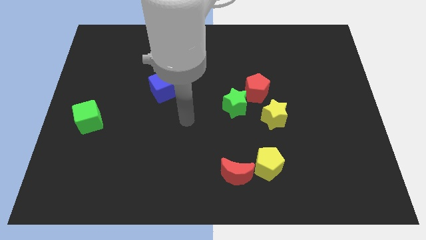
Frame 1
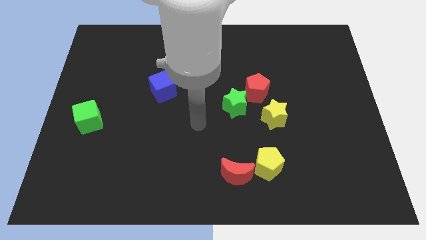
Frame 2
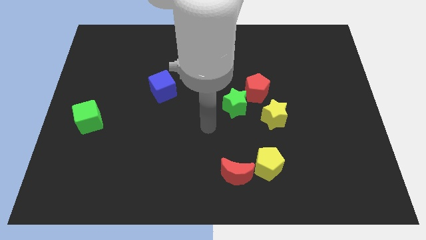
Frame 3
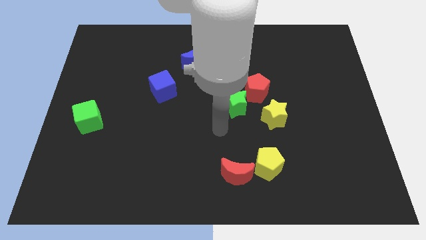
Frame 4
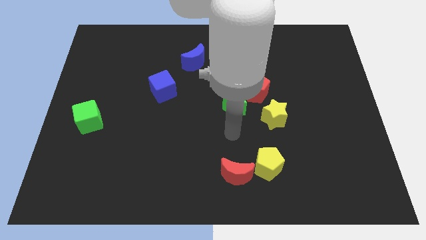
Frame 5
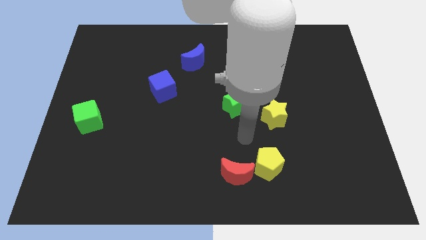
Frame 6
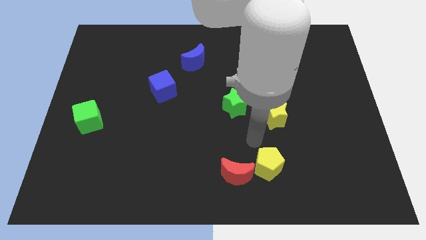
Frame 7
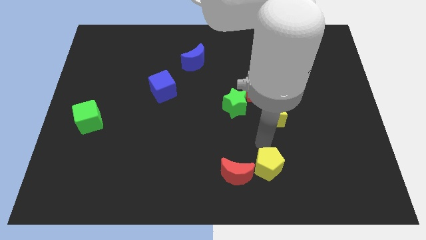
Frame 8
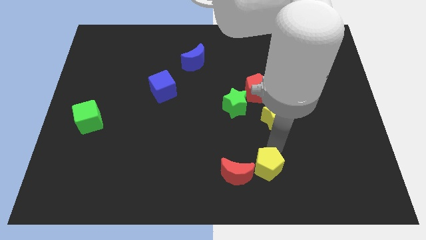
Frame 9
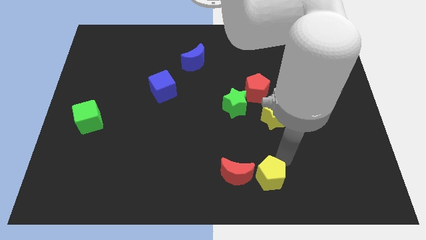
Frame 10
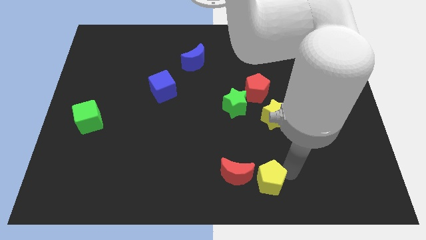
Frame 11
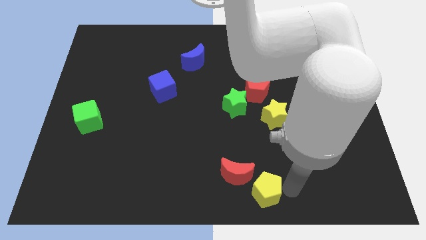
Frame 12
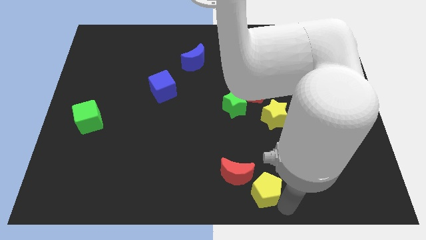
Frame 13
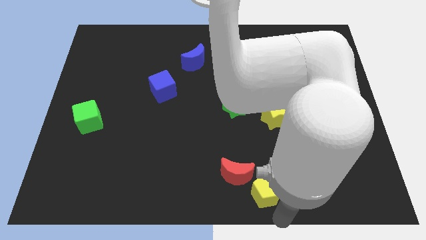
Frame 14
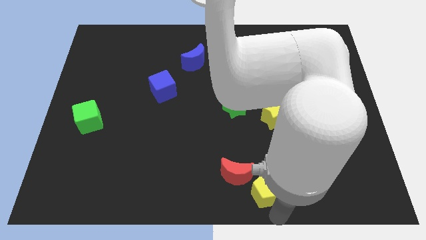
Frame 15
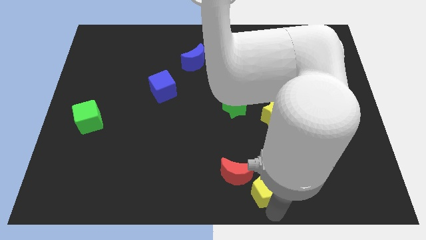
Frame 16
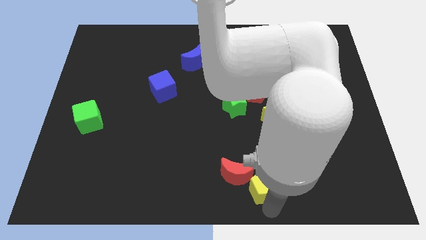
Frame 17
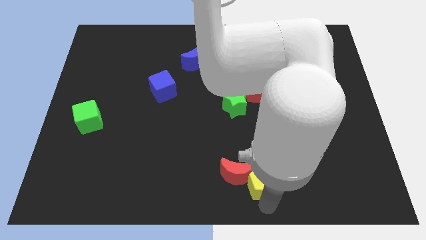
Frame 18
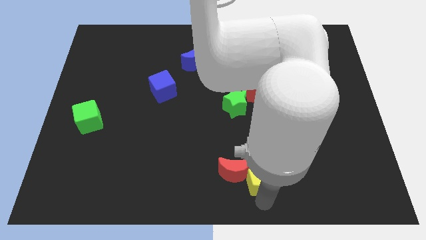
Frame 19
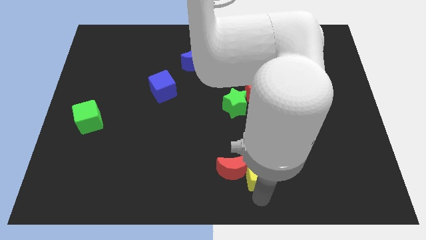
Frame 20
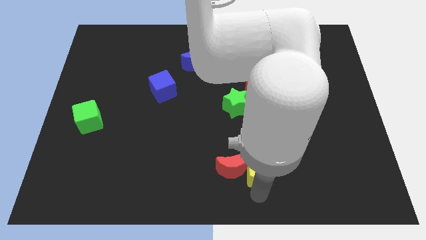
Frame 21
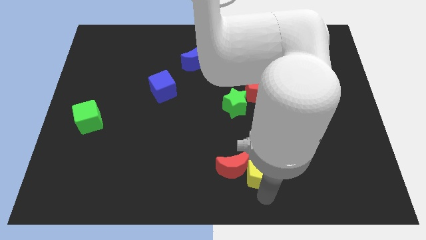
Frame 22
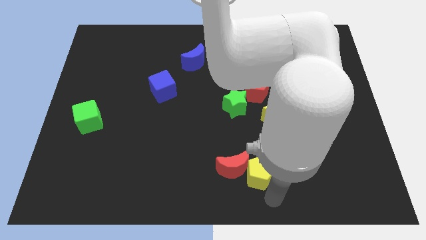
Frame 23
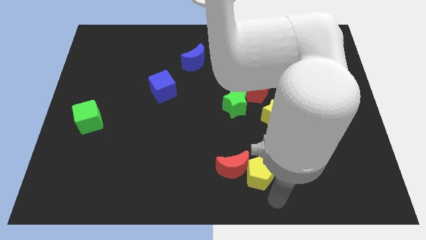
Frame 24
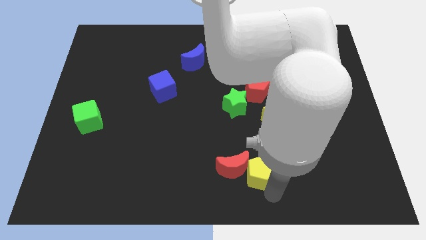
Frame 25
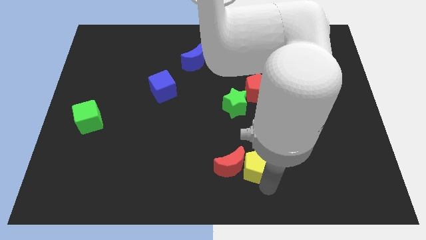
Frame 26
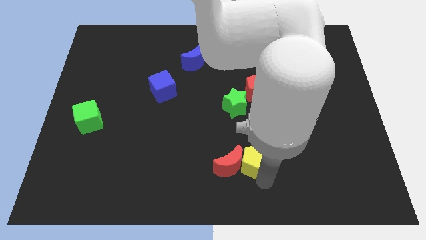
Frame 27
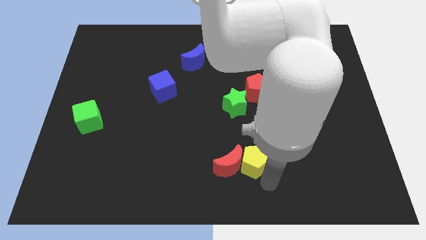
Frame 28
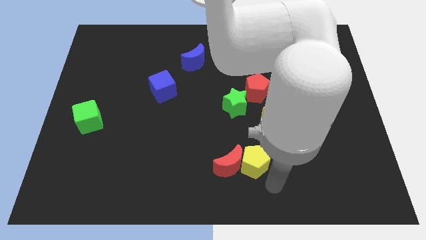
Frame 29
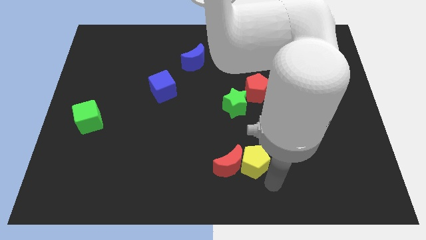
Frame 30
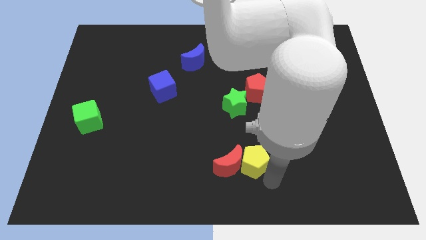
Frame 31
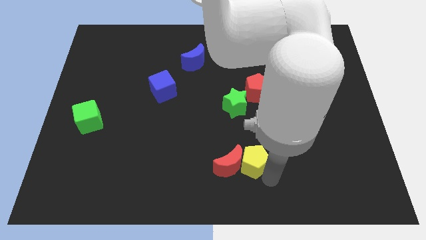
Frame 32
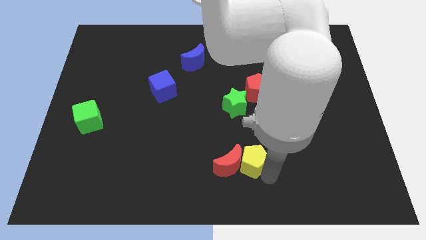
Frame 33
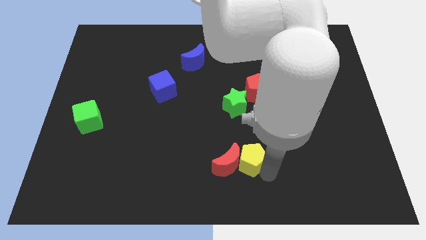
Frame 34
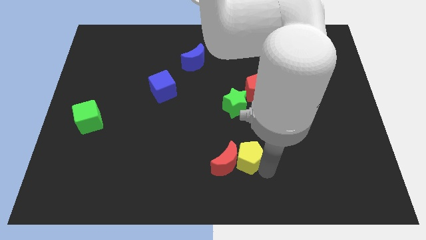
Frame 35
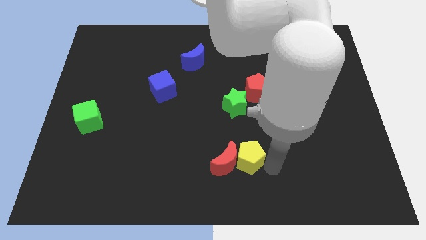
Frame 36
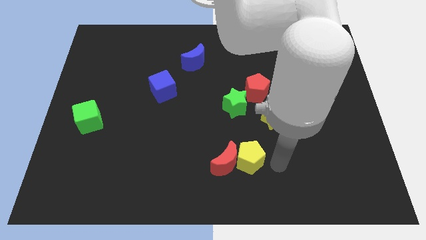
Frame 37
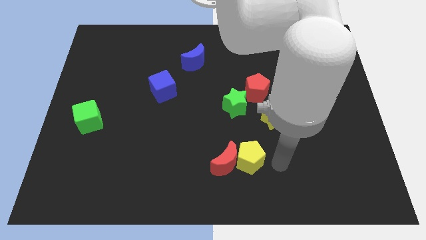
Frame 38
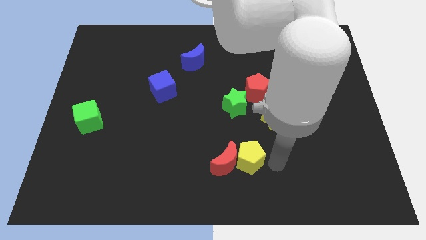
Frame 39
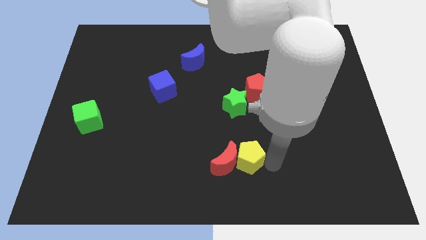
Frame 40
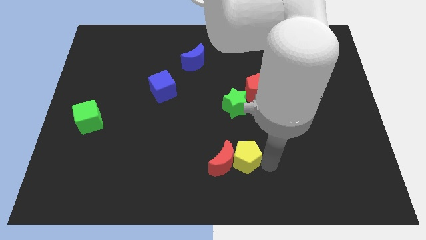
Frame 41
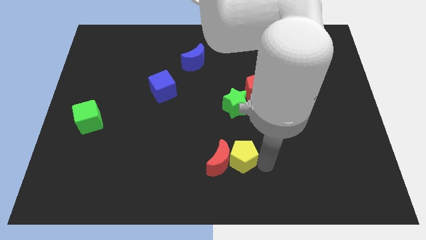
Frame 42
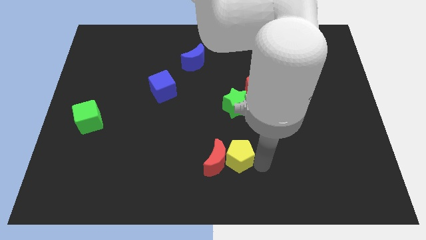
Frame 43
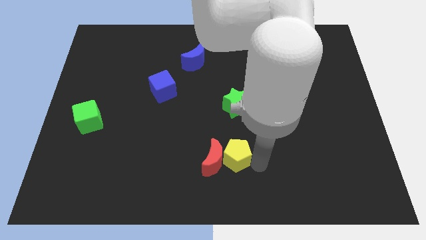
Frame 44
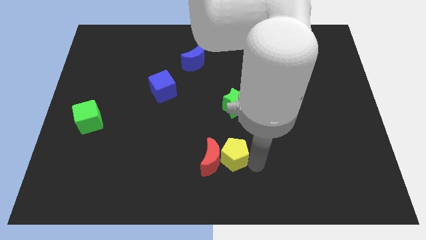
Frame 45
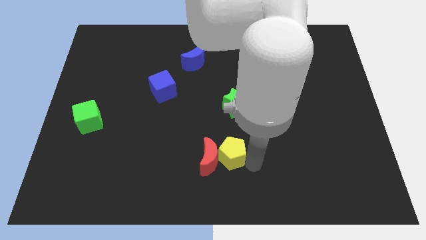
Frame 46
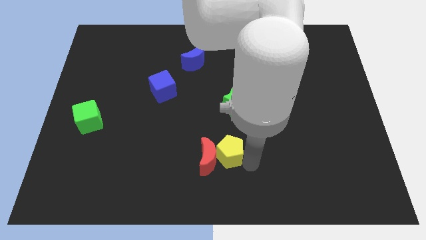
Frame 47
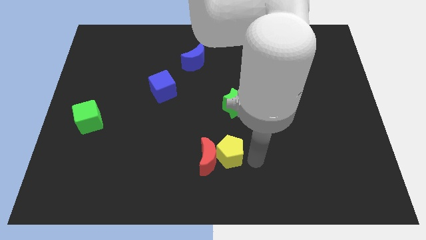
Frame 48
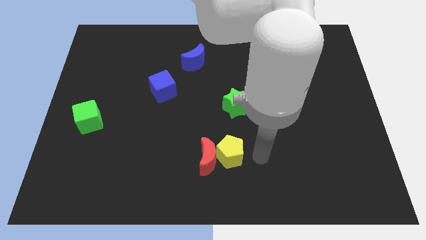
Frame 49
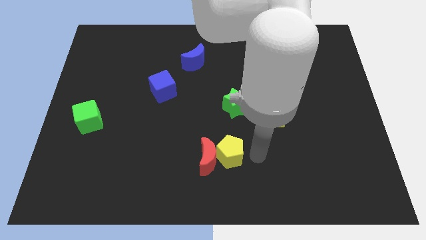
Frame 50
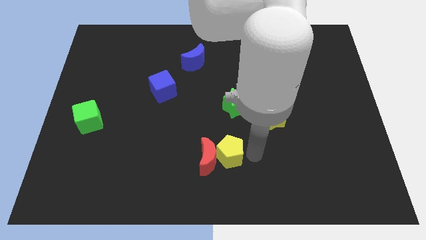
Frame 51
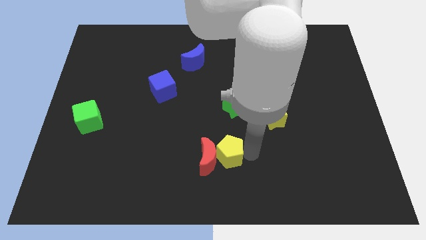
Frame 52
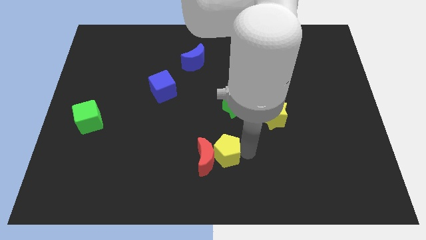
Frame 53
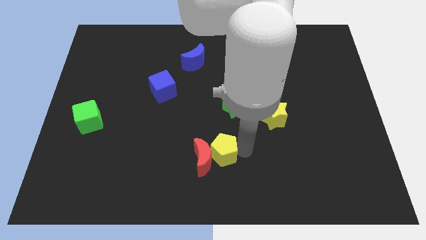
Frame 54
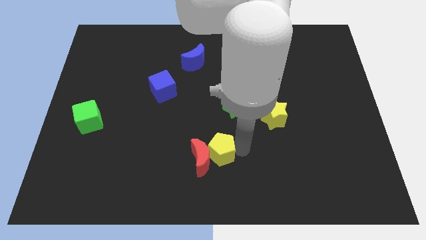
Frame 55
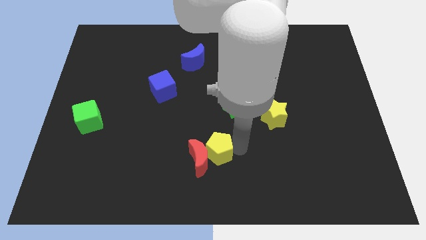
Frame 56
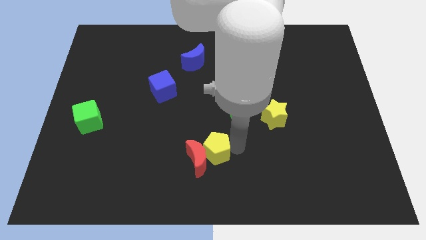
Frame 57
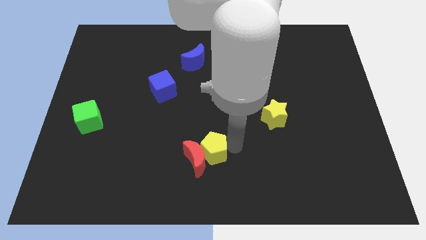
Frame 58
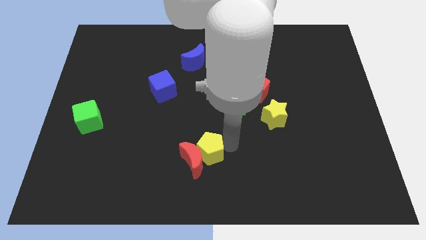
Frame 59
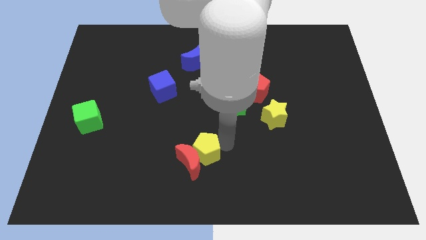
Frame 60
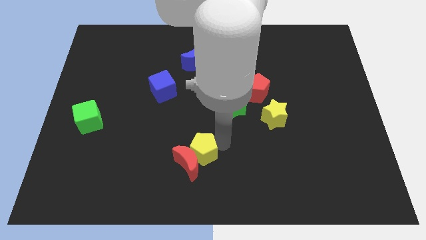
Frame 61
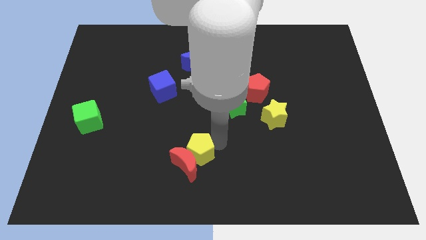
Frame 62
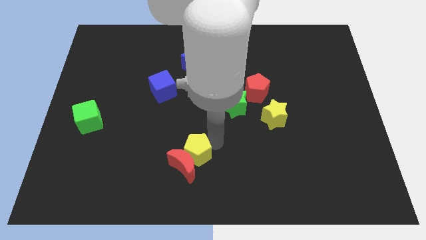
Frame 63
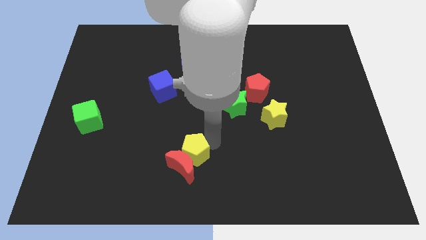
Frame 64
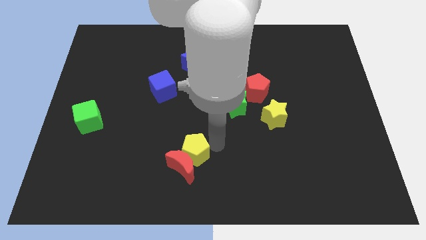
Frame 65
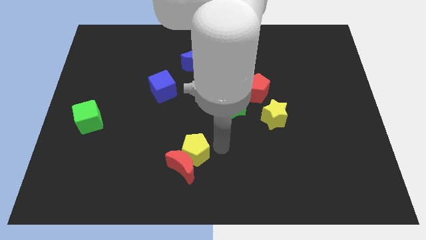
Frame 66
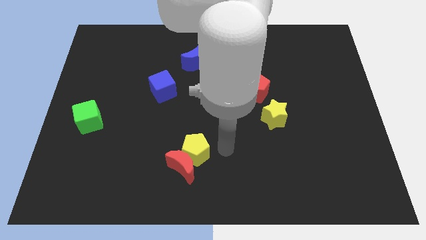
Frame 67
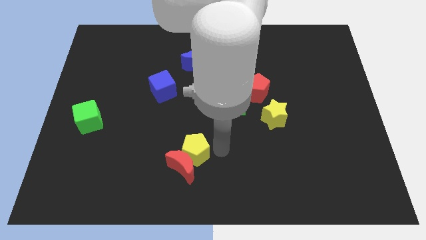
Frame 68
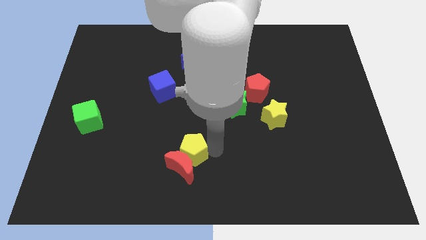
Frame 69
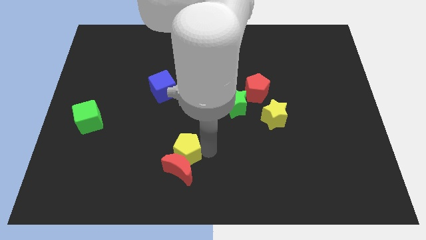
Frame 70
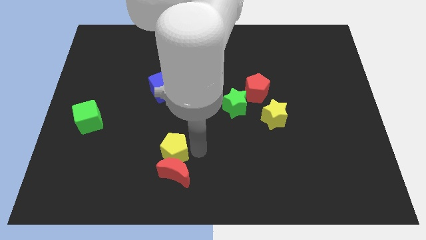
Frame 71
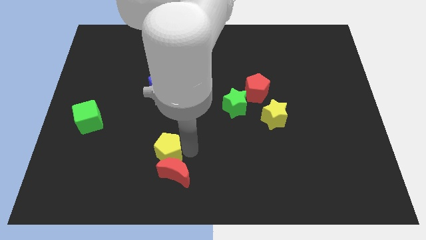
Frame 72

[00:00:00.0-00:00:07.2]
move the yellow pentagon to the left

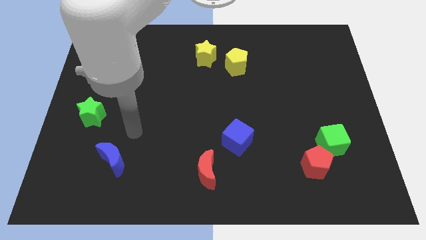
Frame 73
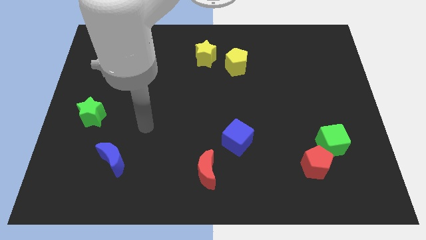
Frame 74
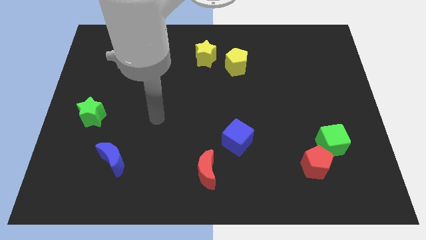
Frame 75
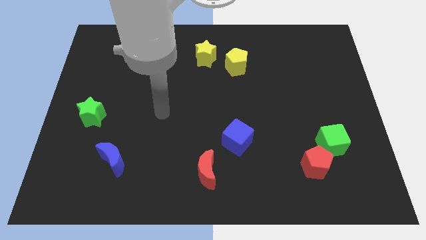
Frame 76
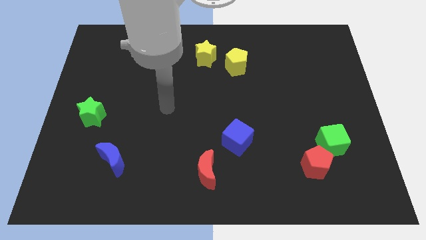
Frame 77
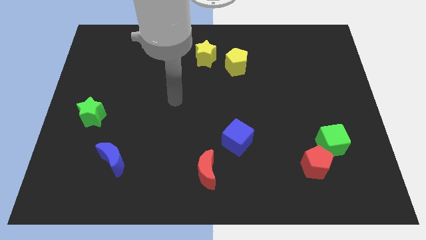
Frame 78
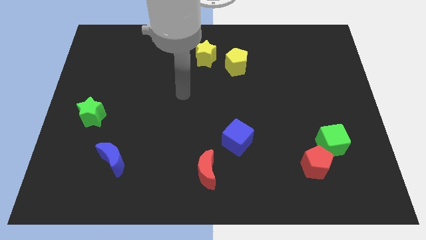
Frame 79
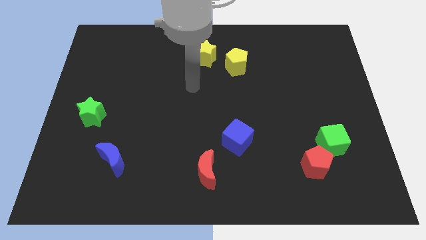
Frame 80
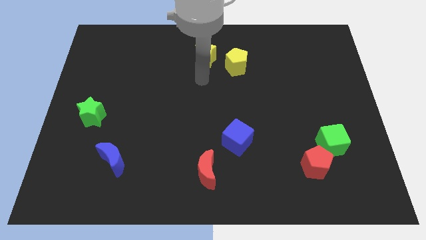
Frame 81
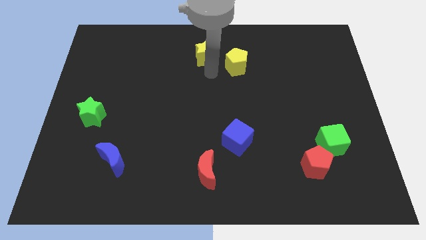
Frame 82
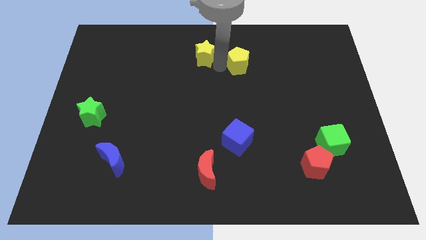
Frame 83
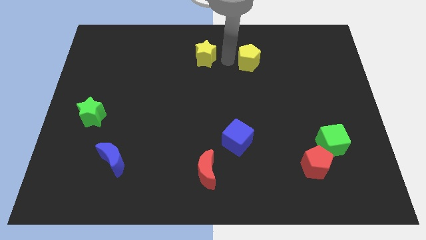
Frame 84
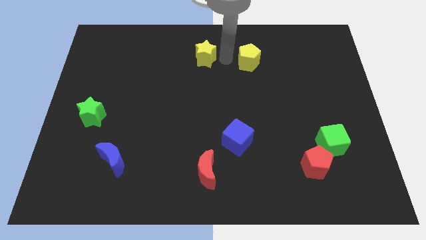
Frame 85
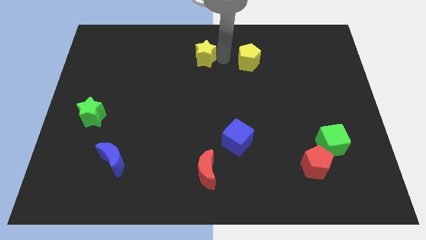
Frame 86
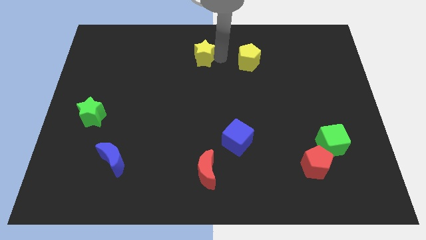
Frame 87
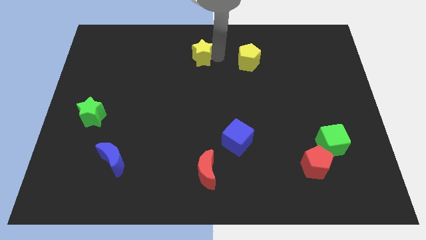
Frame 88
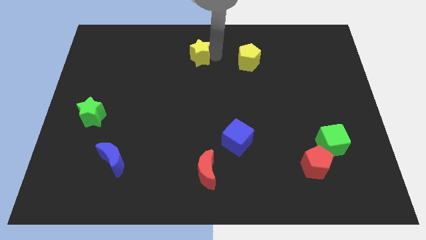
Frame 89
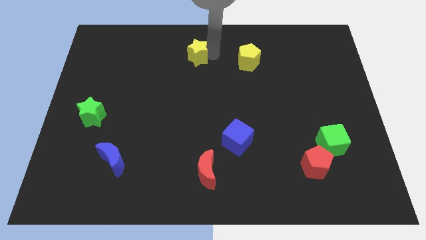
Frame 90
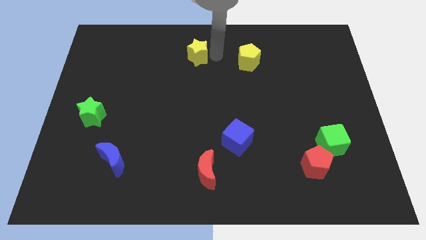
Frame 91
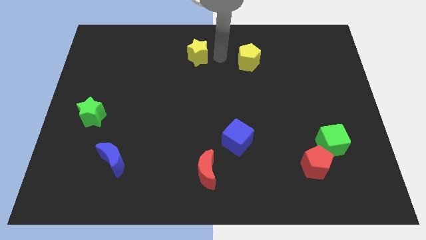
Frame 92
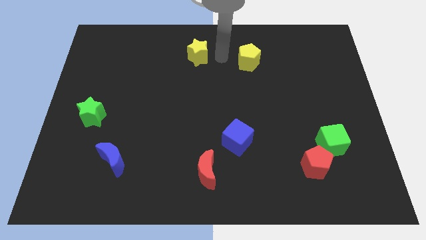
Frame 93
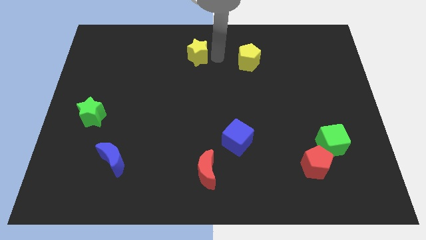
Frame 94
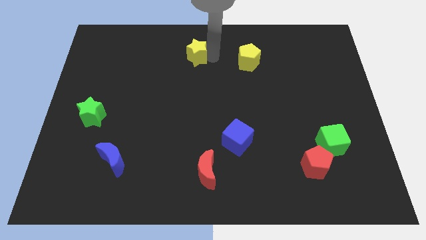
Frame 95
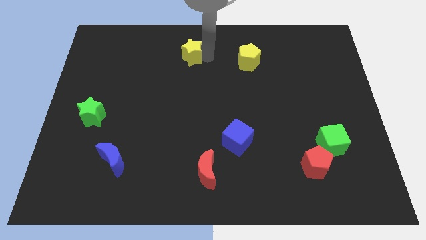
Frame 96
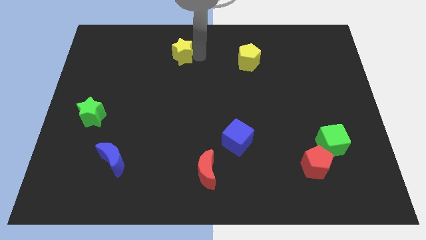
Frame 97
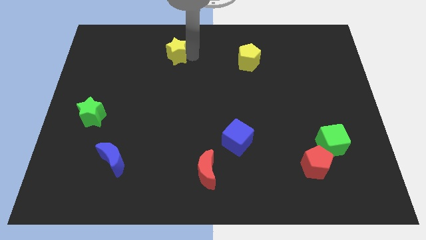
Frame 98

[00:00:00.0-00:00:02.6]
move the yellow star a little to the left
